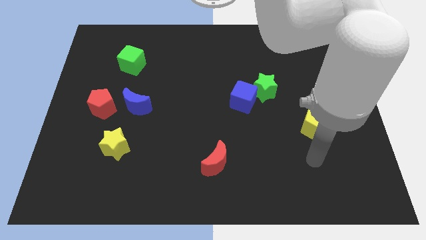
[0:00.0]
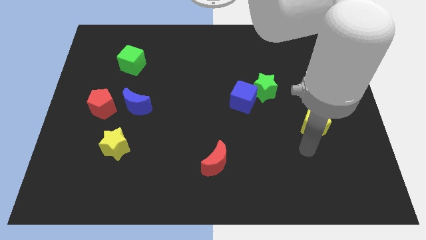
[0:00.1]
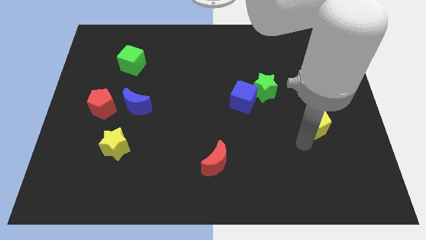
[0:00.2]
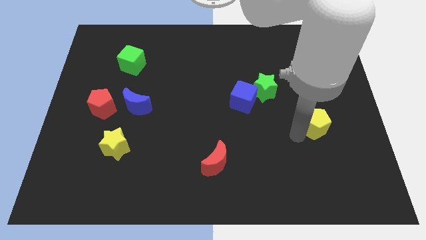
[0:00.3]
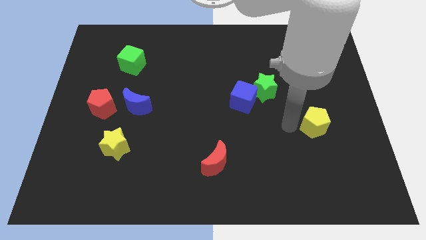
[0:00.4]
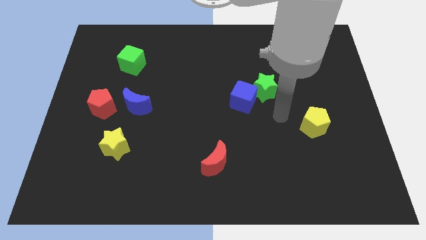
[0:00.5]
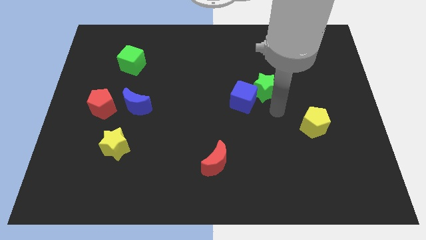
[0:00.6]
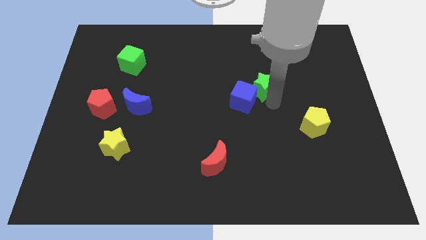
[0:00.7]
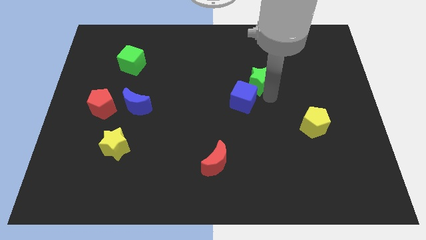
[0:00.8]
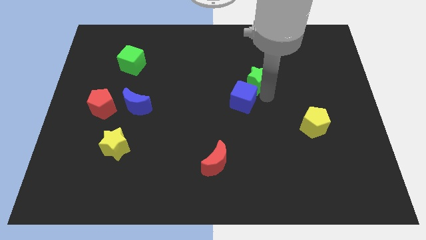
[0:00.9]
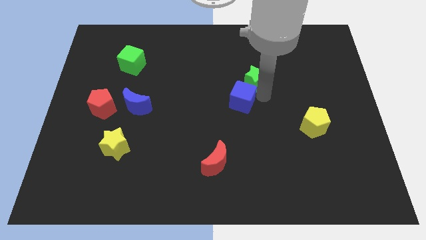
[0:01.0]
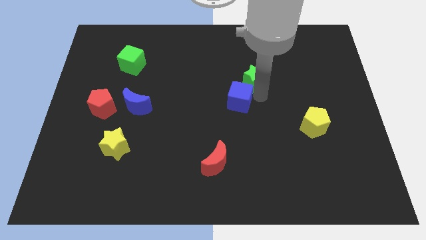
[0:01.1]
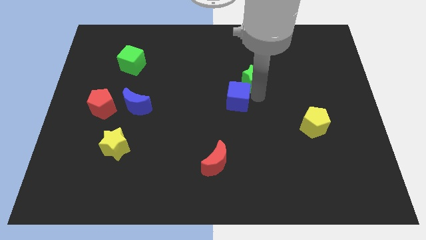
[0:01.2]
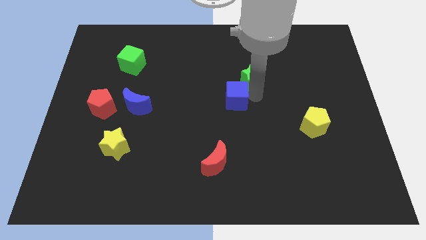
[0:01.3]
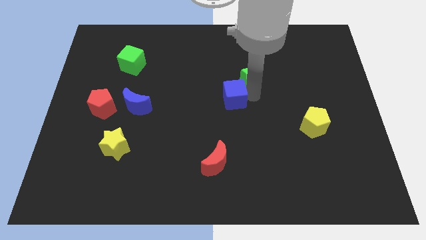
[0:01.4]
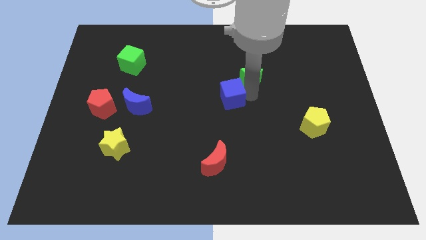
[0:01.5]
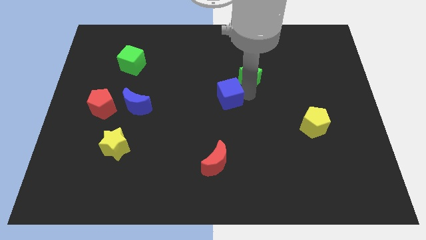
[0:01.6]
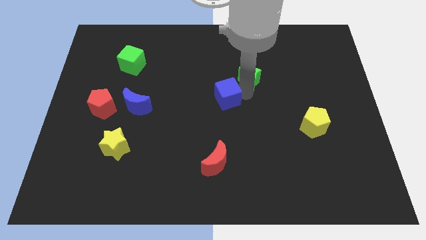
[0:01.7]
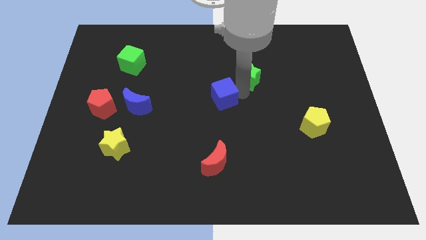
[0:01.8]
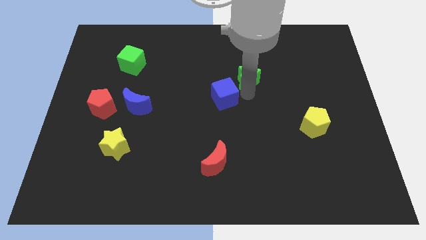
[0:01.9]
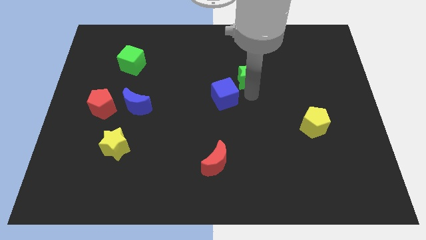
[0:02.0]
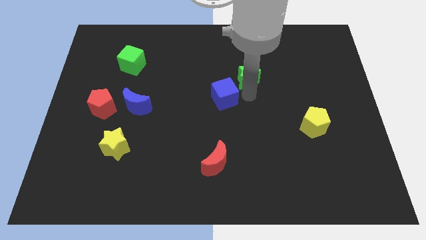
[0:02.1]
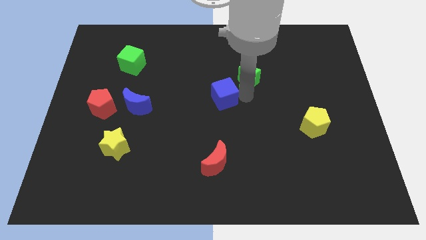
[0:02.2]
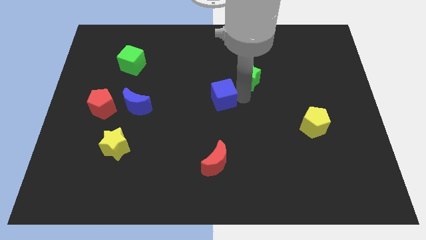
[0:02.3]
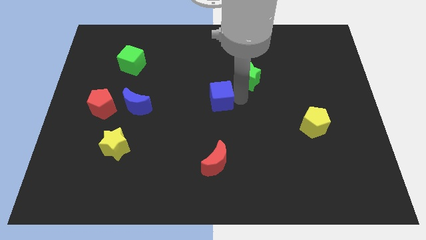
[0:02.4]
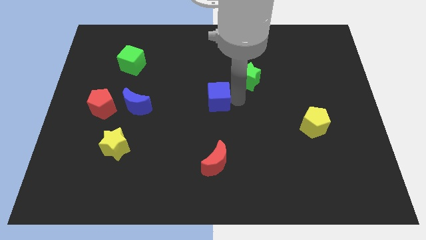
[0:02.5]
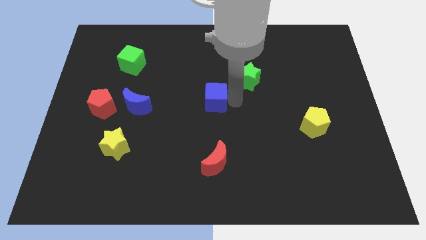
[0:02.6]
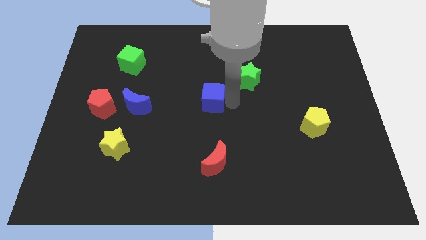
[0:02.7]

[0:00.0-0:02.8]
move the blue cube a little left

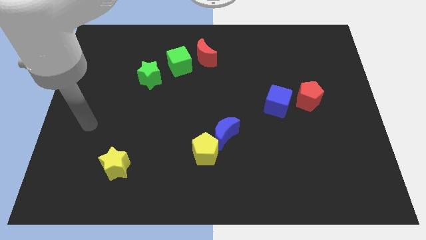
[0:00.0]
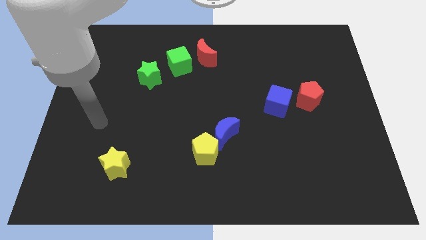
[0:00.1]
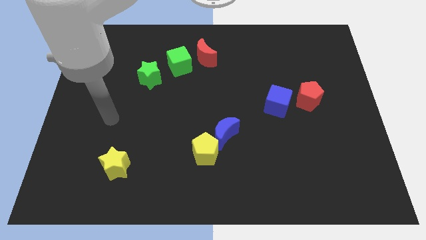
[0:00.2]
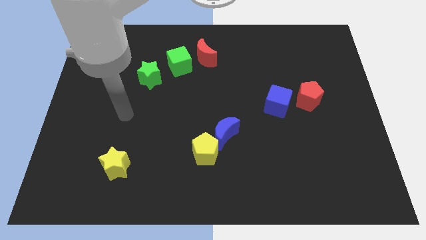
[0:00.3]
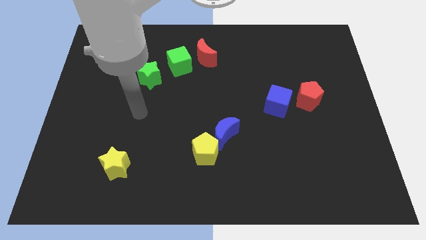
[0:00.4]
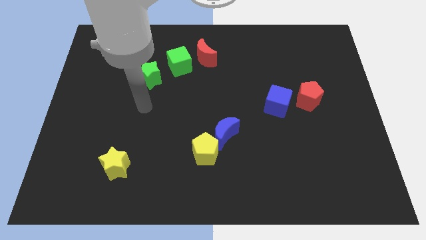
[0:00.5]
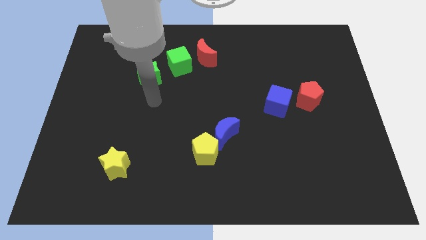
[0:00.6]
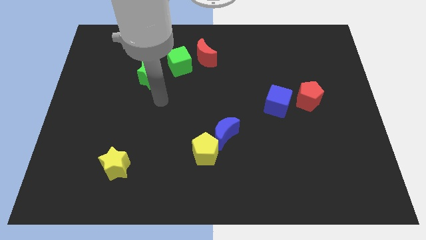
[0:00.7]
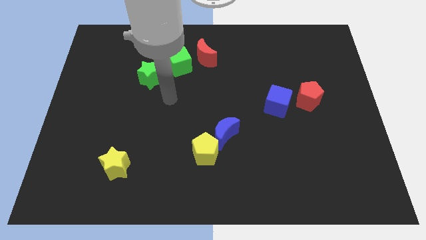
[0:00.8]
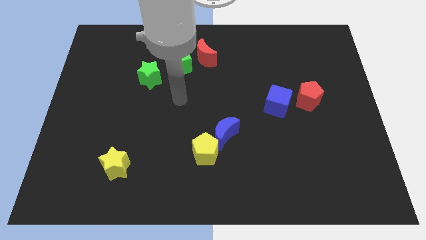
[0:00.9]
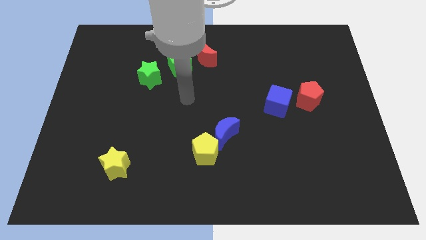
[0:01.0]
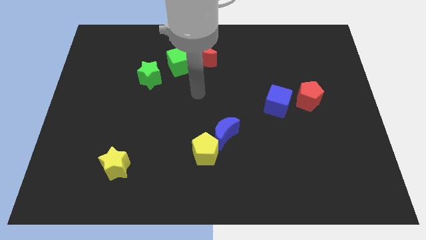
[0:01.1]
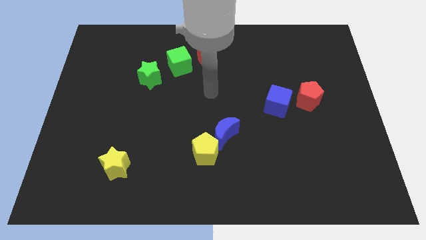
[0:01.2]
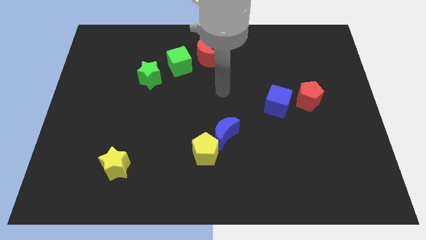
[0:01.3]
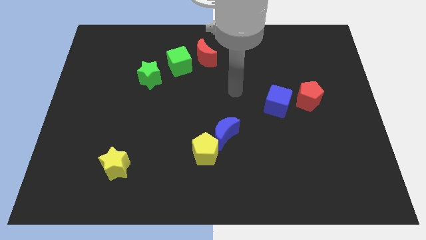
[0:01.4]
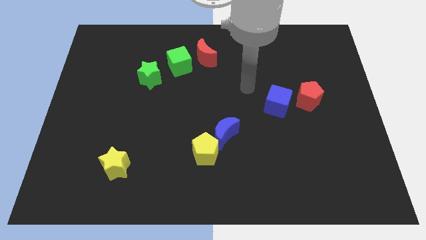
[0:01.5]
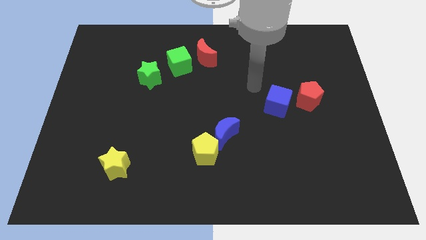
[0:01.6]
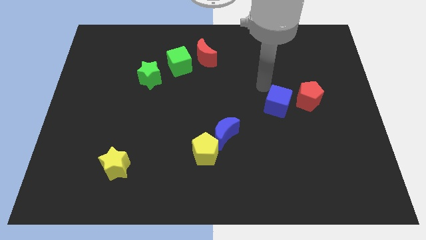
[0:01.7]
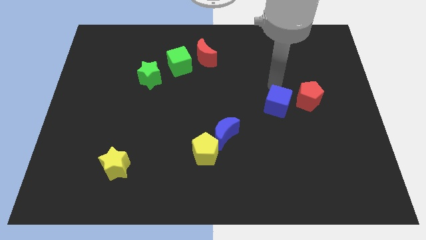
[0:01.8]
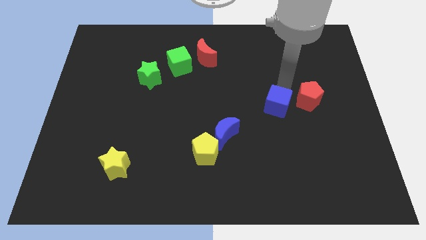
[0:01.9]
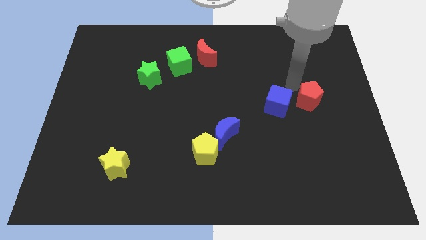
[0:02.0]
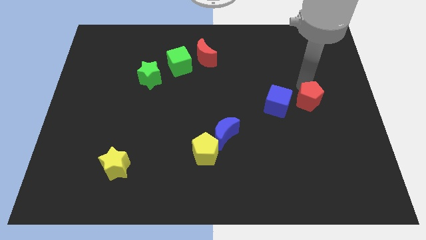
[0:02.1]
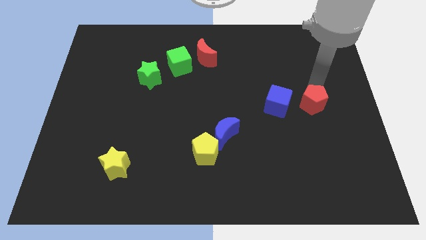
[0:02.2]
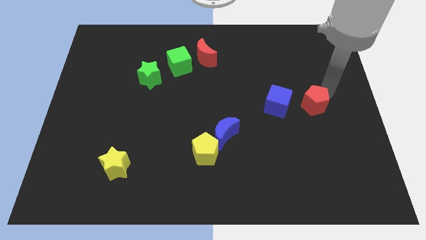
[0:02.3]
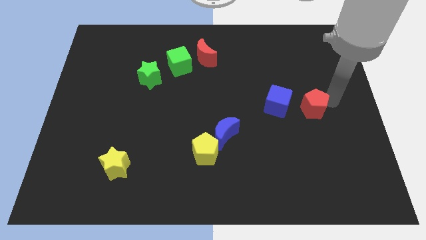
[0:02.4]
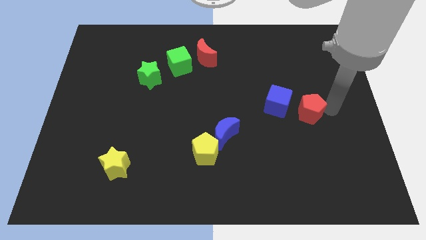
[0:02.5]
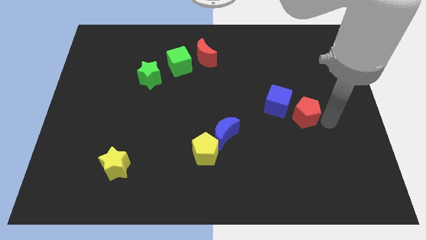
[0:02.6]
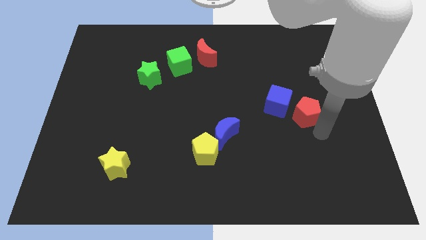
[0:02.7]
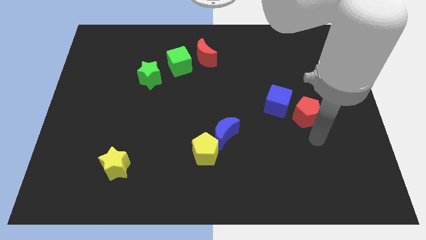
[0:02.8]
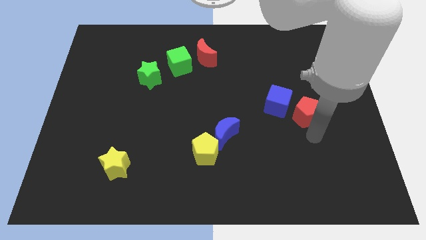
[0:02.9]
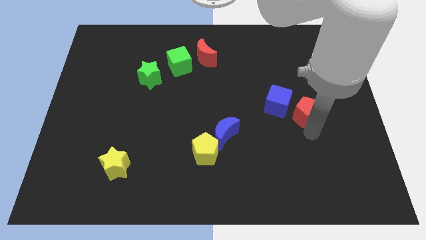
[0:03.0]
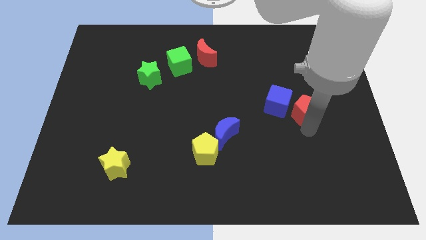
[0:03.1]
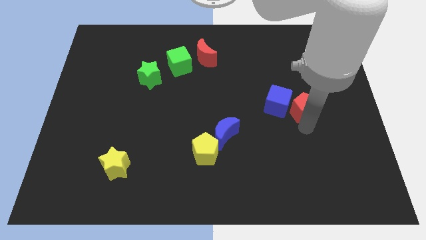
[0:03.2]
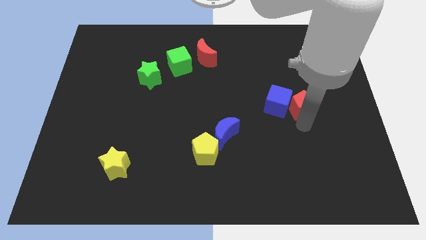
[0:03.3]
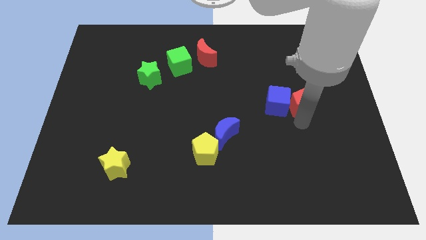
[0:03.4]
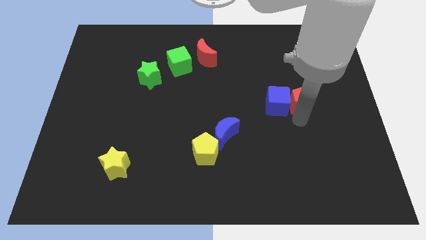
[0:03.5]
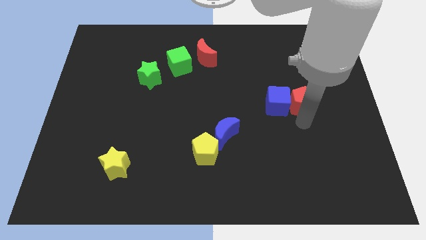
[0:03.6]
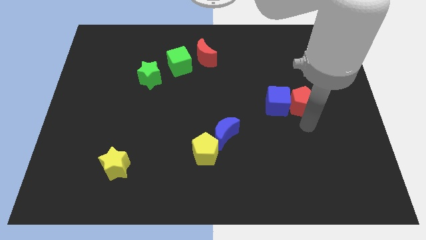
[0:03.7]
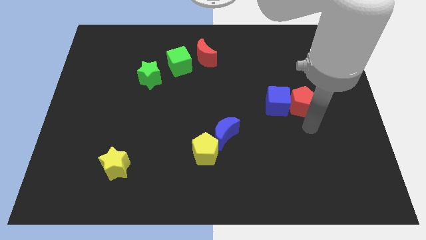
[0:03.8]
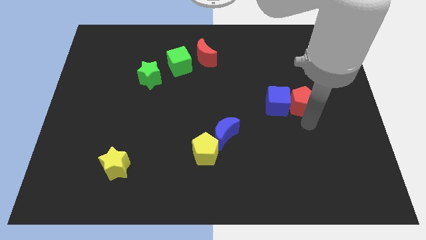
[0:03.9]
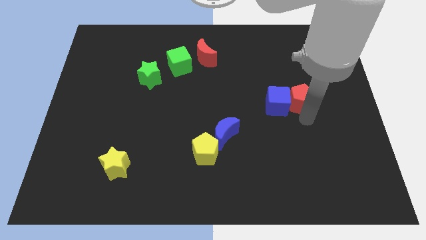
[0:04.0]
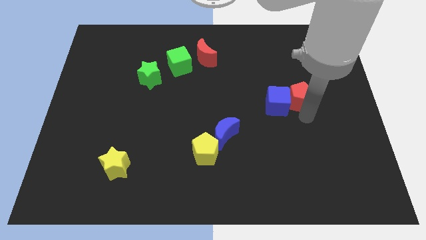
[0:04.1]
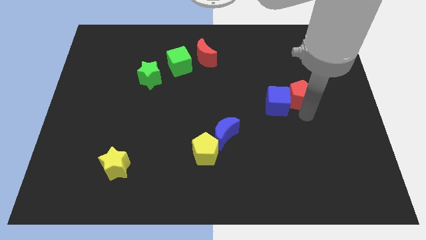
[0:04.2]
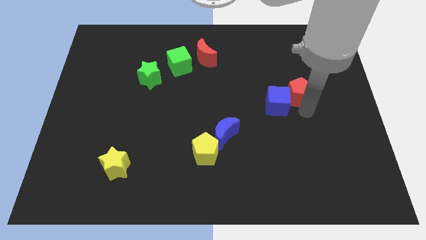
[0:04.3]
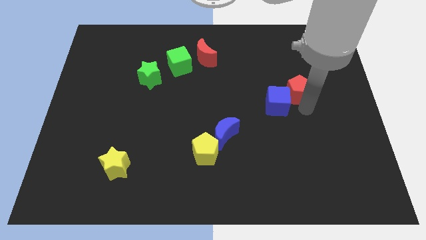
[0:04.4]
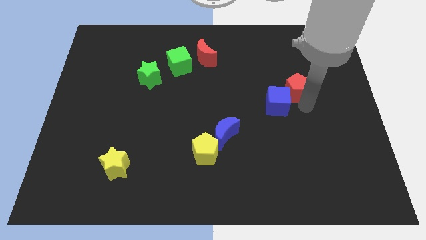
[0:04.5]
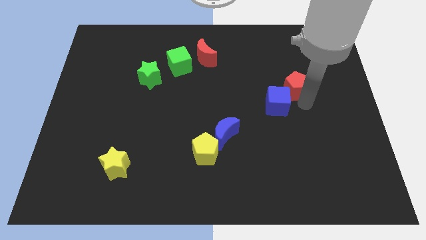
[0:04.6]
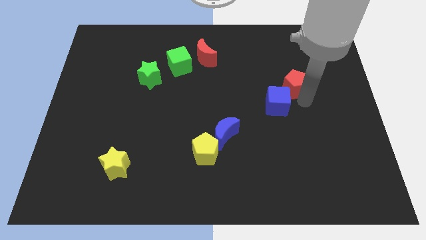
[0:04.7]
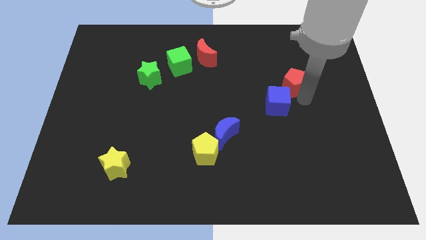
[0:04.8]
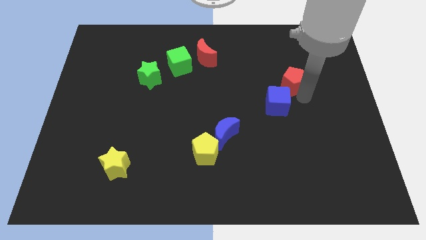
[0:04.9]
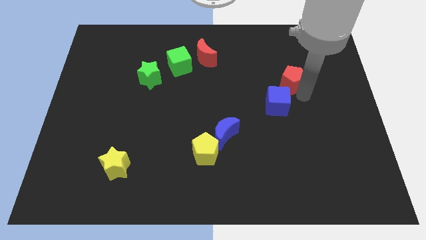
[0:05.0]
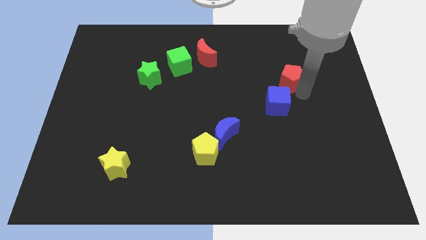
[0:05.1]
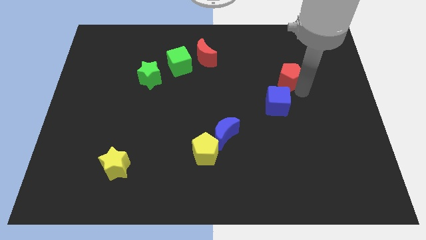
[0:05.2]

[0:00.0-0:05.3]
slightly move the red pentagon up and to the left diagonally

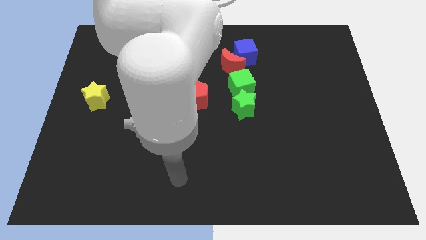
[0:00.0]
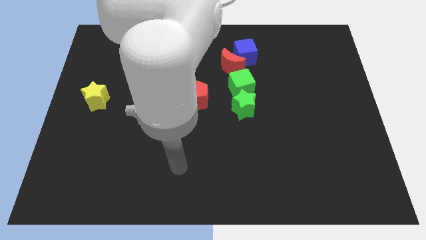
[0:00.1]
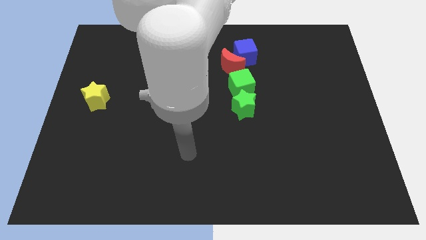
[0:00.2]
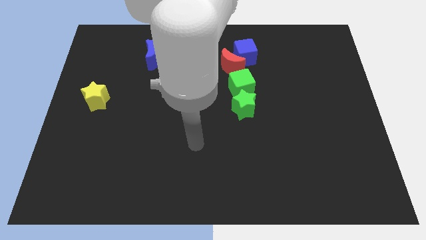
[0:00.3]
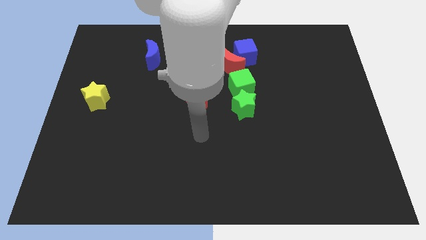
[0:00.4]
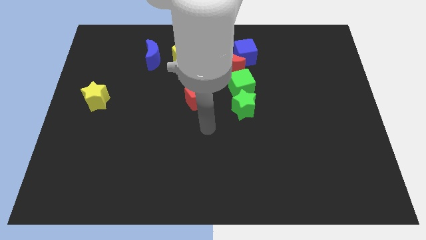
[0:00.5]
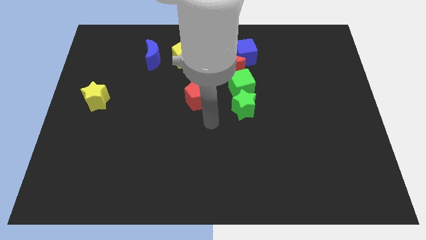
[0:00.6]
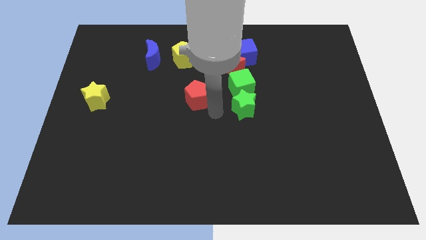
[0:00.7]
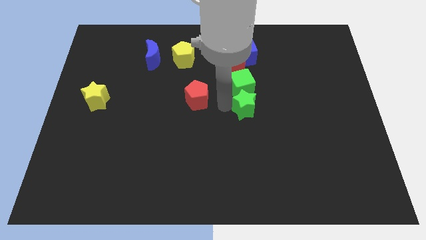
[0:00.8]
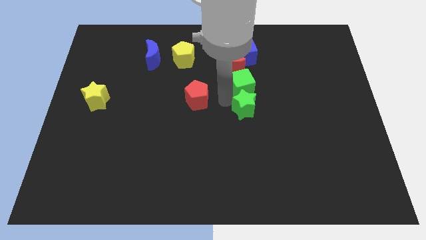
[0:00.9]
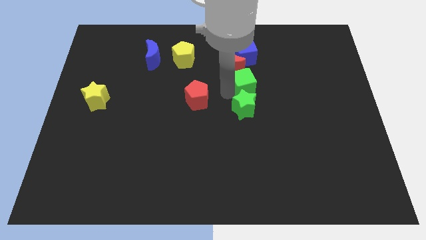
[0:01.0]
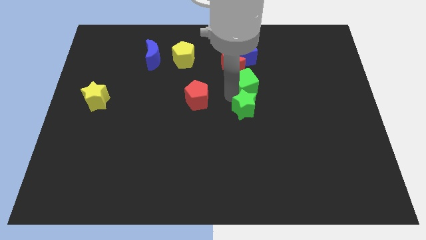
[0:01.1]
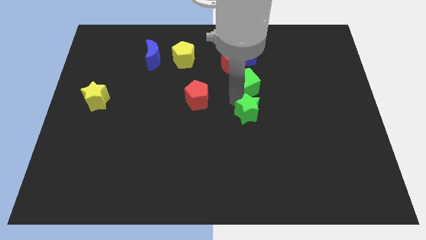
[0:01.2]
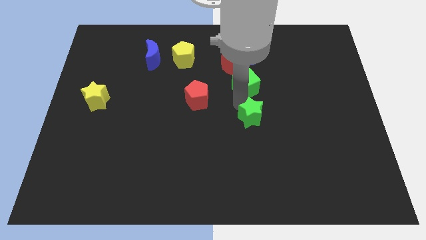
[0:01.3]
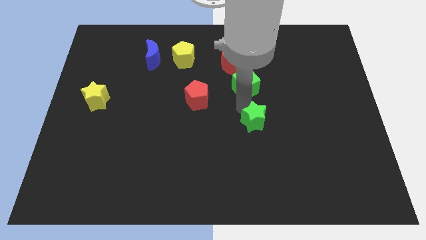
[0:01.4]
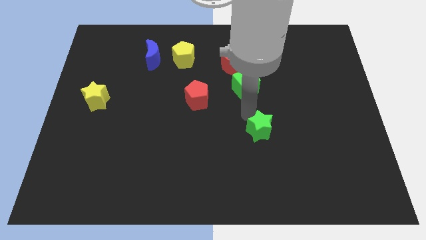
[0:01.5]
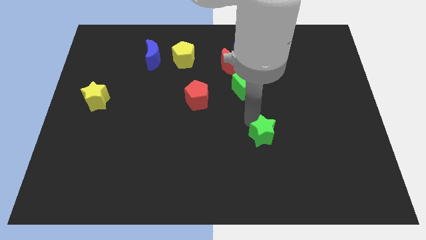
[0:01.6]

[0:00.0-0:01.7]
slightly slide the green star downwards and to the right diagonally
